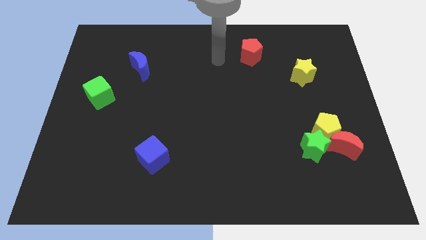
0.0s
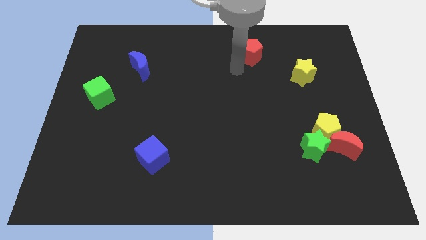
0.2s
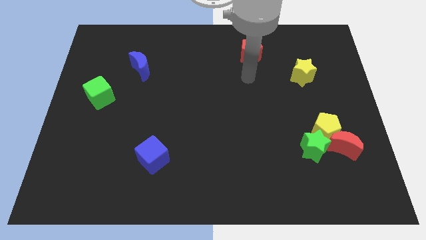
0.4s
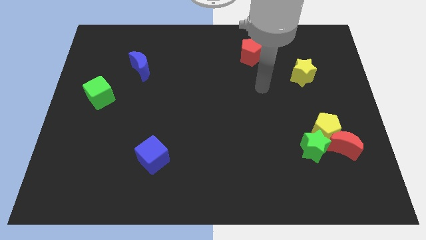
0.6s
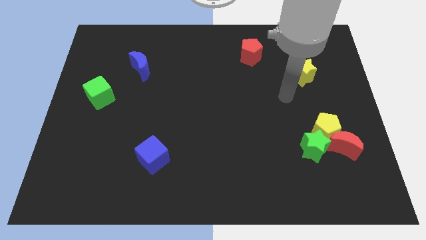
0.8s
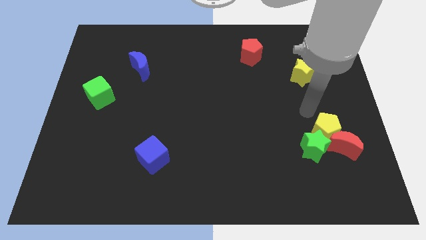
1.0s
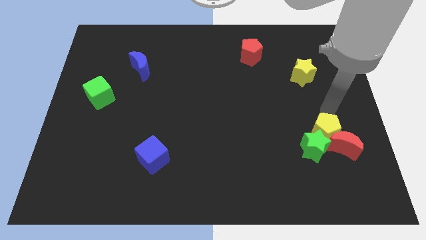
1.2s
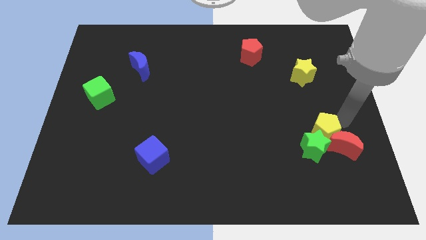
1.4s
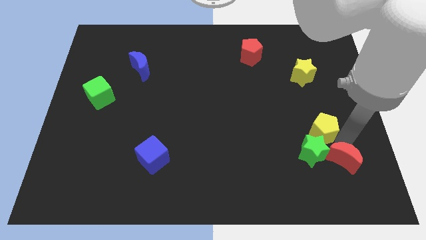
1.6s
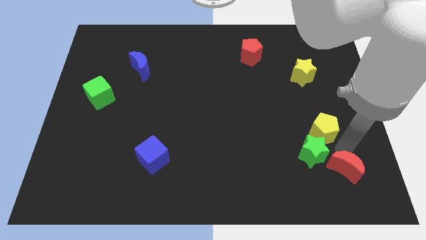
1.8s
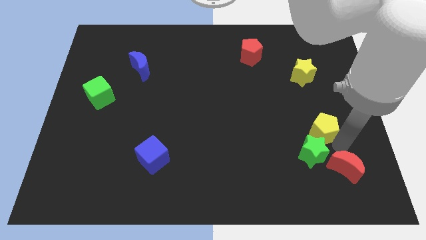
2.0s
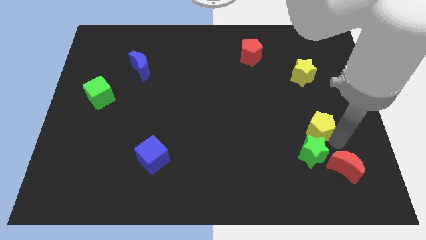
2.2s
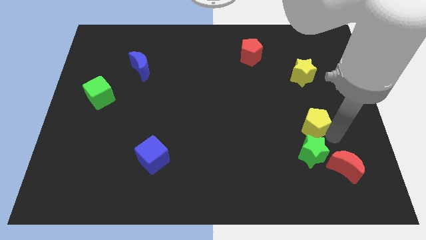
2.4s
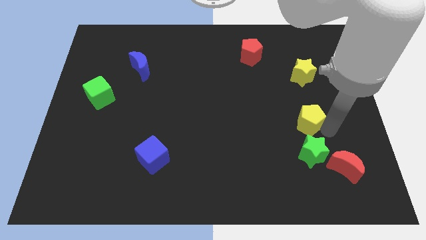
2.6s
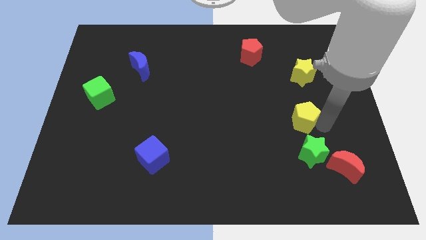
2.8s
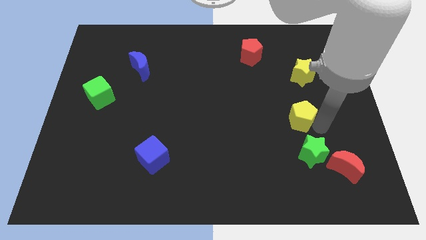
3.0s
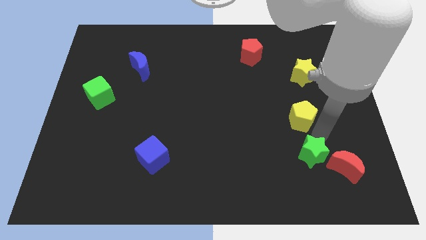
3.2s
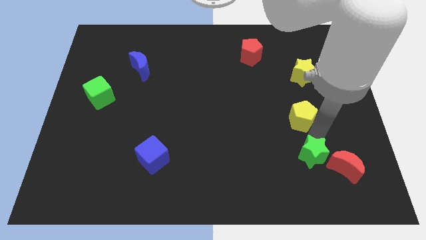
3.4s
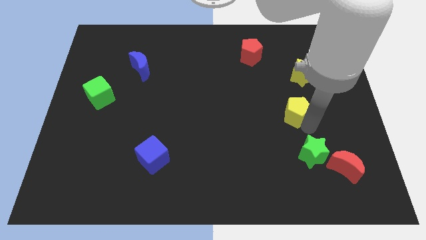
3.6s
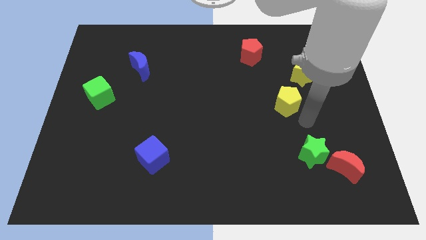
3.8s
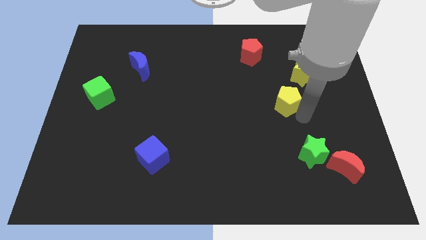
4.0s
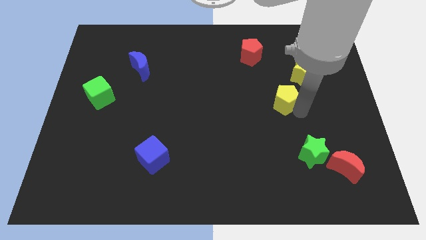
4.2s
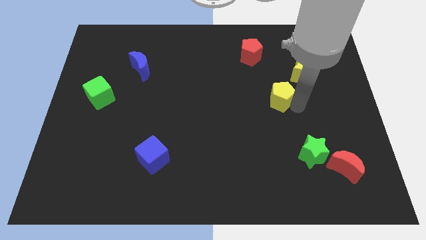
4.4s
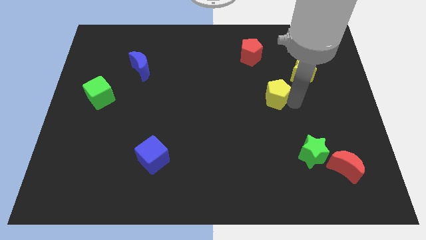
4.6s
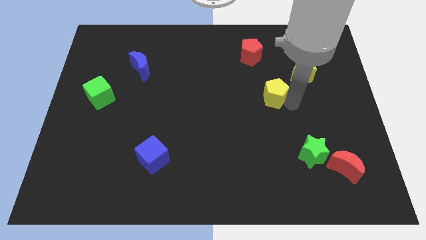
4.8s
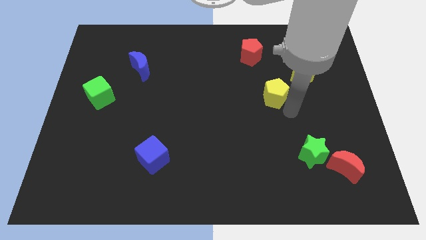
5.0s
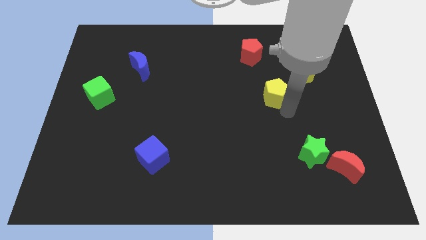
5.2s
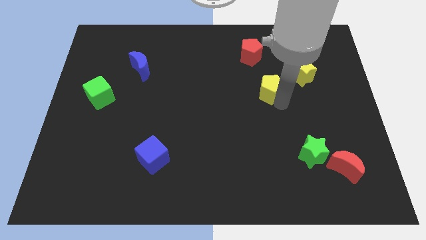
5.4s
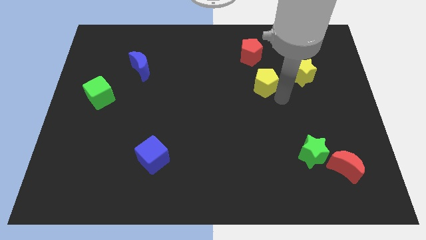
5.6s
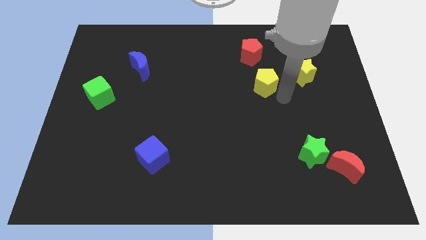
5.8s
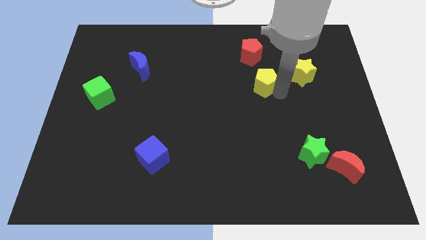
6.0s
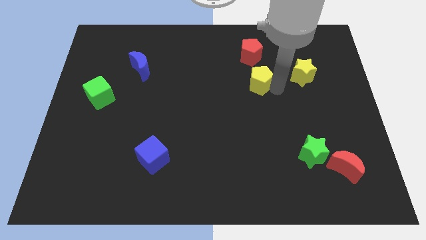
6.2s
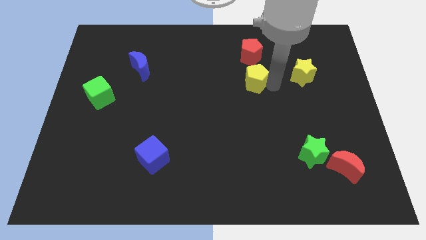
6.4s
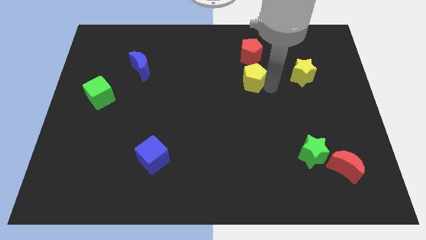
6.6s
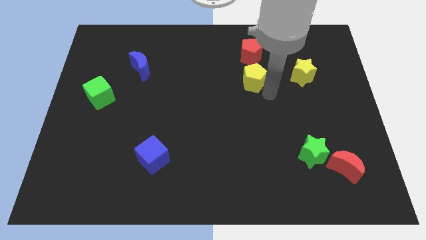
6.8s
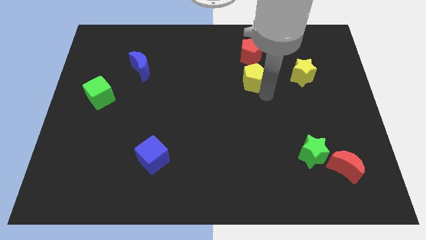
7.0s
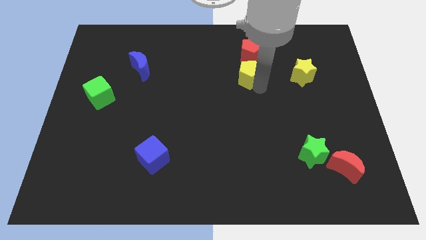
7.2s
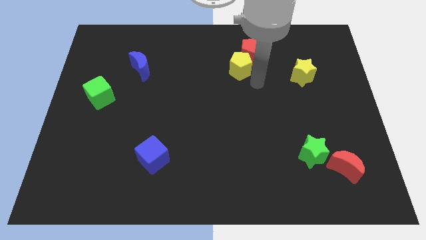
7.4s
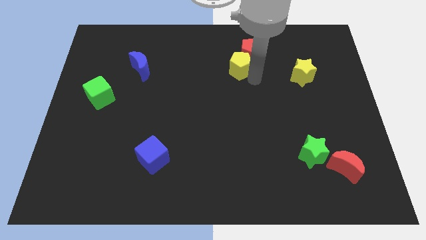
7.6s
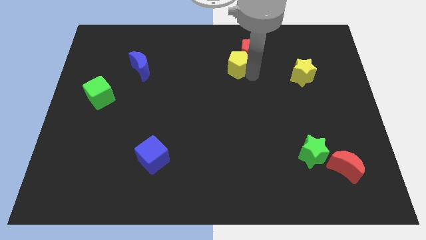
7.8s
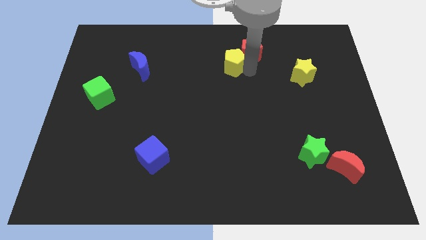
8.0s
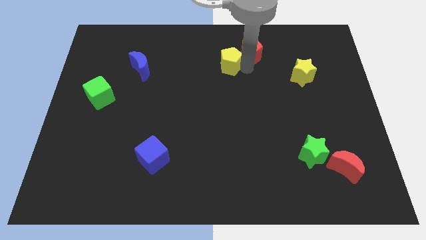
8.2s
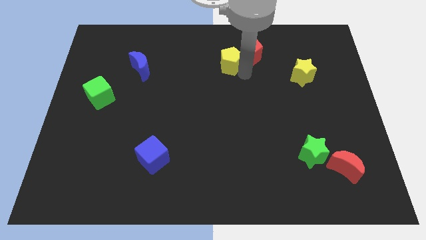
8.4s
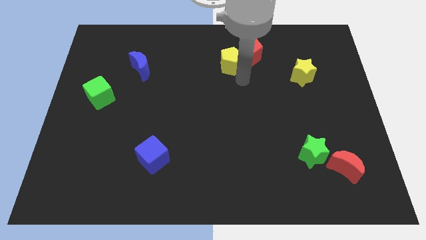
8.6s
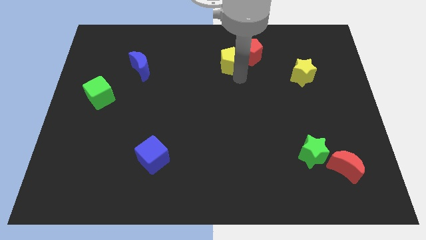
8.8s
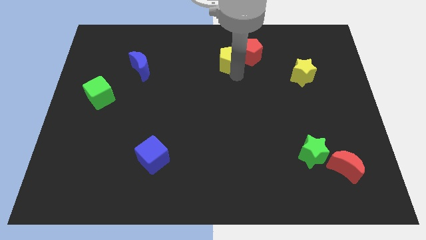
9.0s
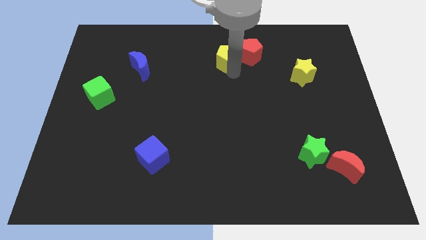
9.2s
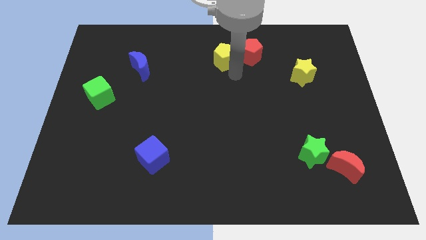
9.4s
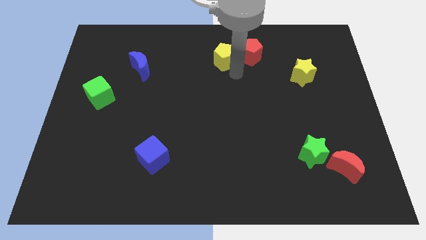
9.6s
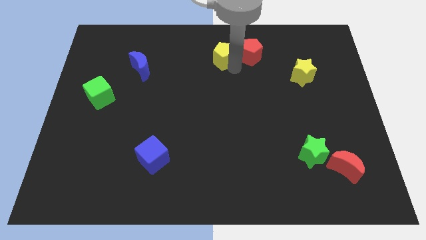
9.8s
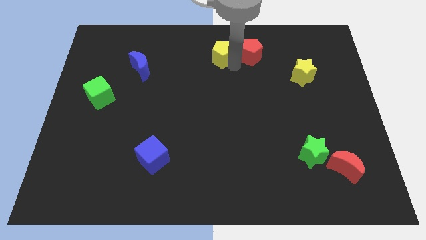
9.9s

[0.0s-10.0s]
move the yellow pentagon to the top

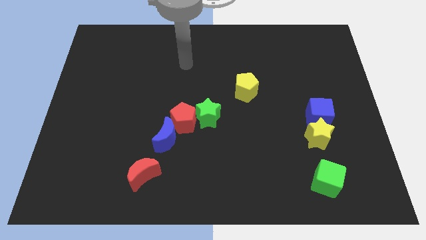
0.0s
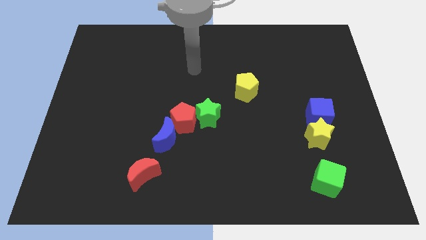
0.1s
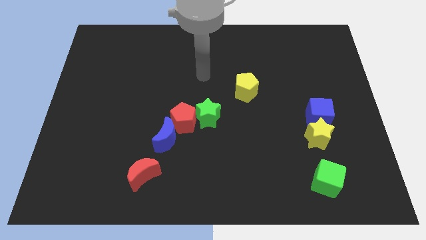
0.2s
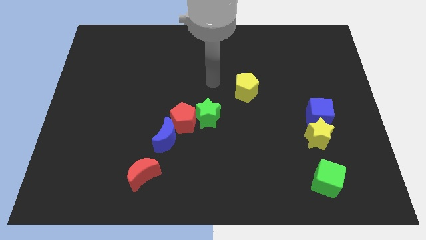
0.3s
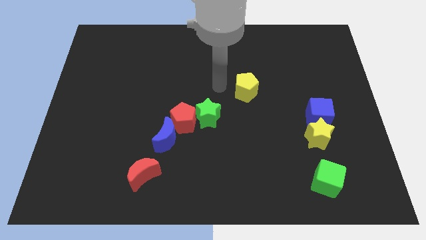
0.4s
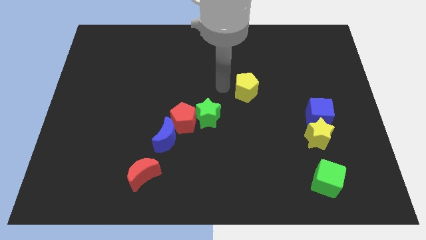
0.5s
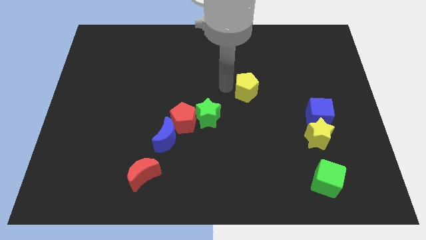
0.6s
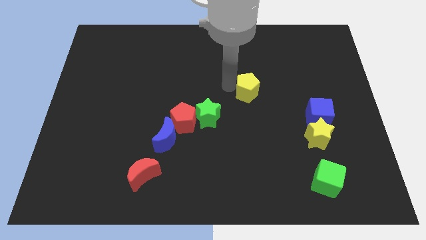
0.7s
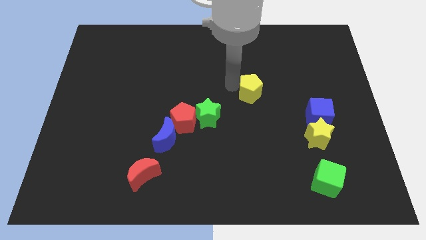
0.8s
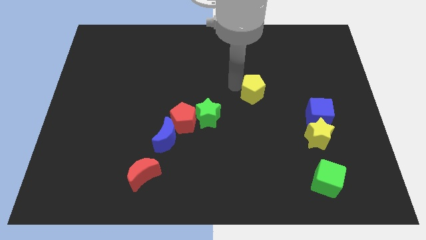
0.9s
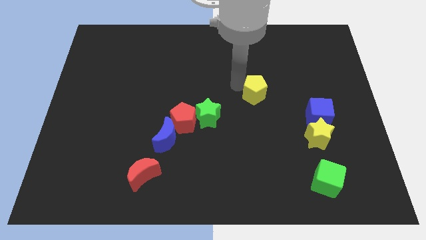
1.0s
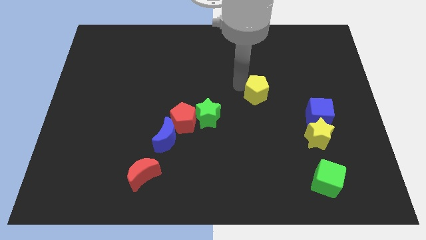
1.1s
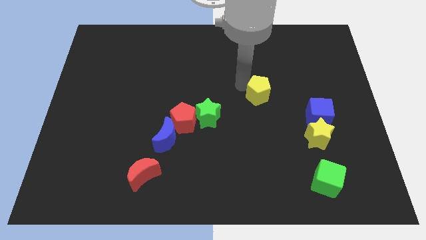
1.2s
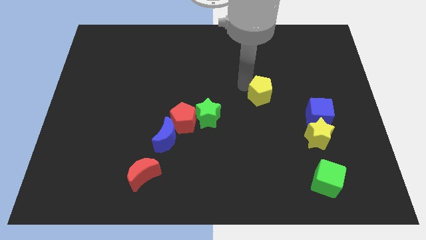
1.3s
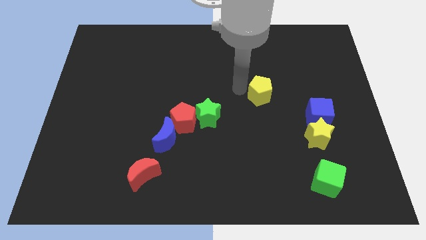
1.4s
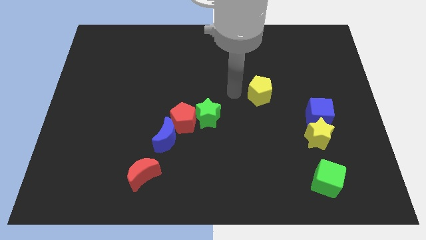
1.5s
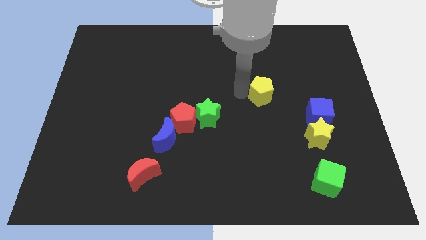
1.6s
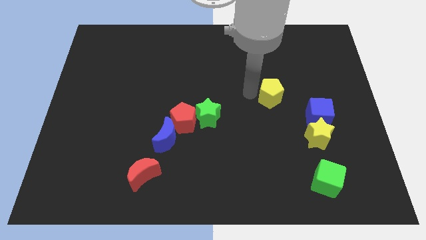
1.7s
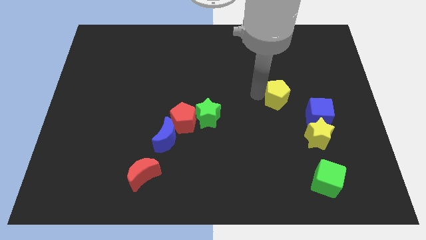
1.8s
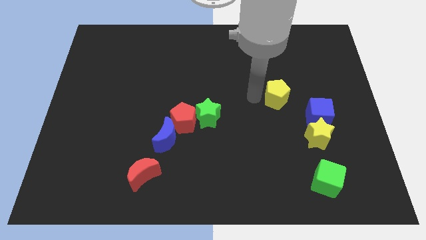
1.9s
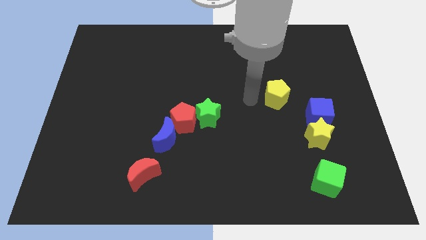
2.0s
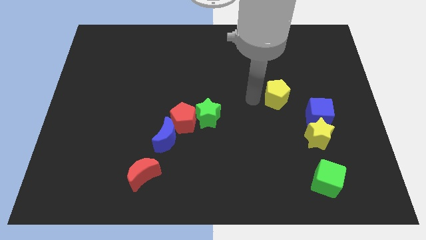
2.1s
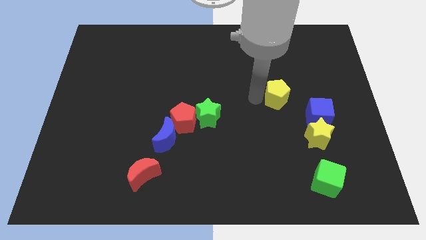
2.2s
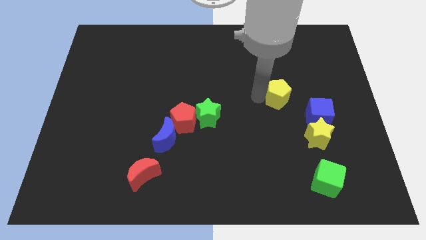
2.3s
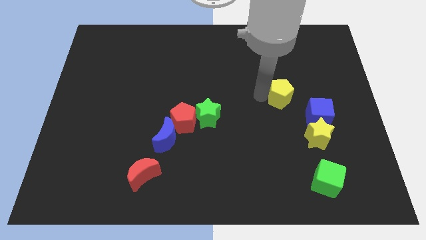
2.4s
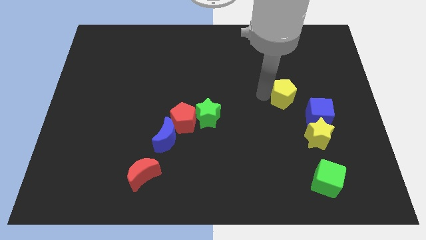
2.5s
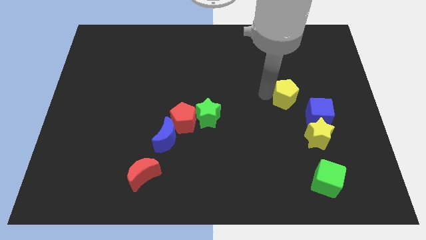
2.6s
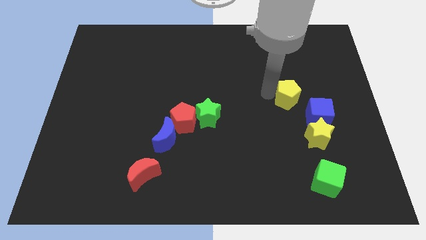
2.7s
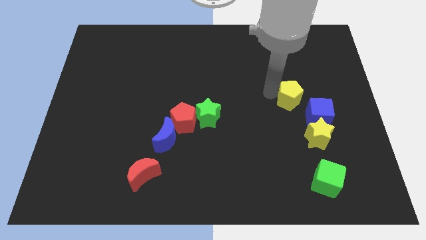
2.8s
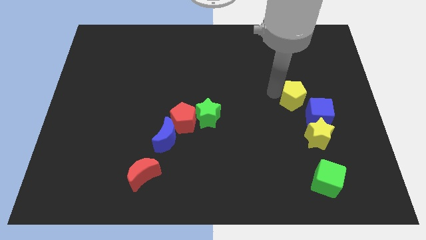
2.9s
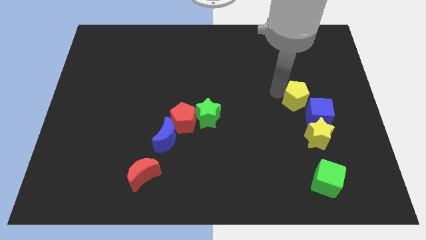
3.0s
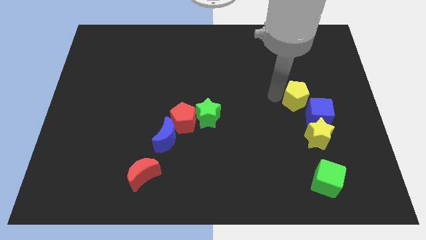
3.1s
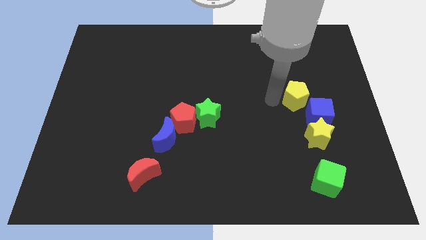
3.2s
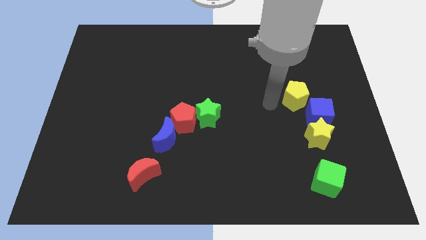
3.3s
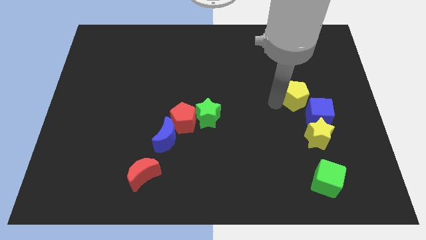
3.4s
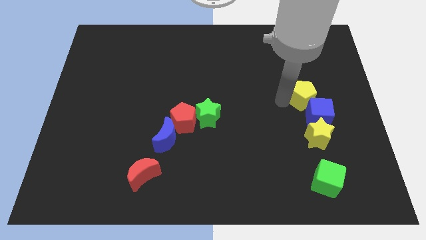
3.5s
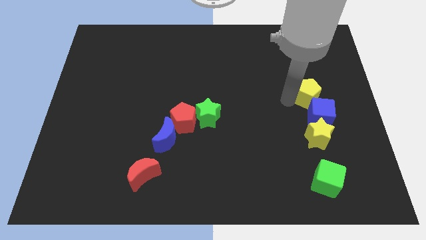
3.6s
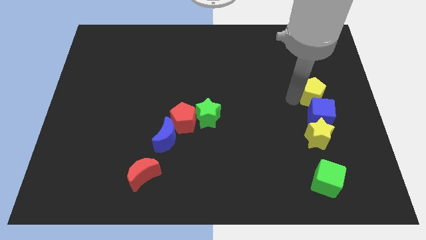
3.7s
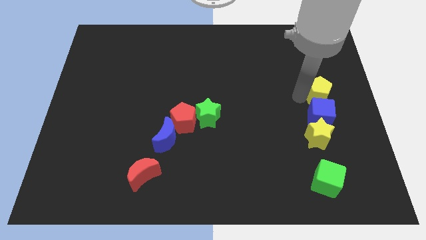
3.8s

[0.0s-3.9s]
move the yellow pentagon to the right side of the board
